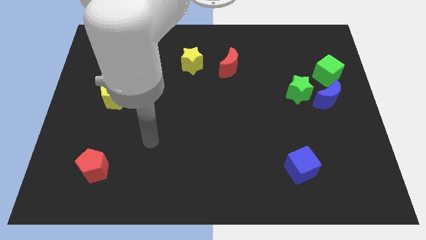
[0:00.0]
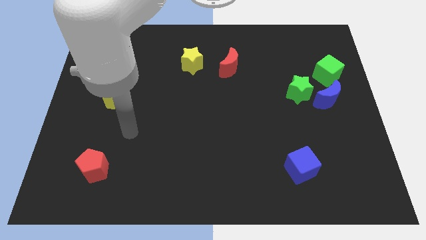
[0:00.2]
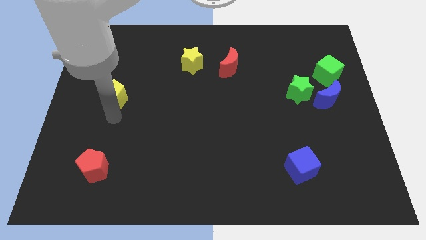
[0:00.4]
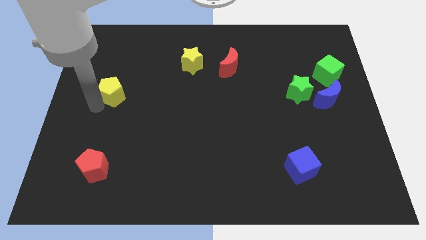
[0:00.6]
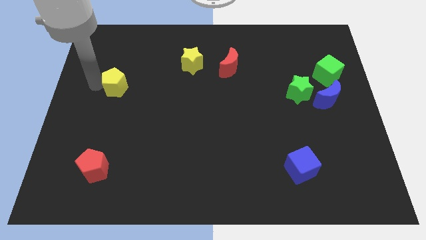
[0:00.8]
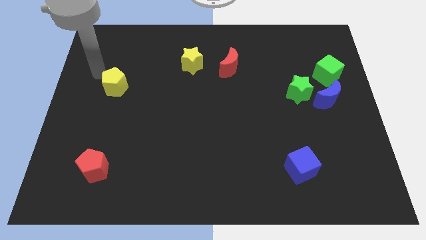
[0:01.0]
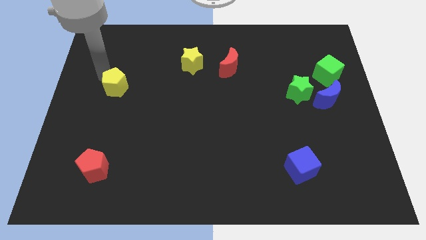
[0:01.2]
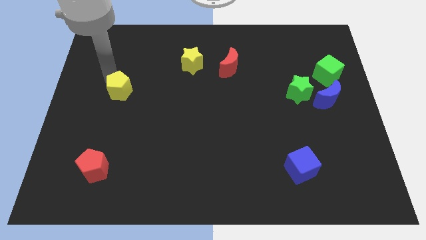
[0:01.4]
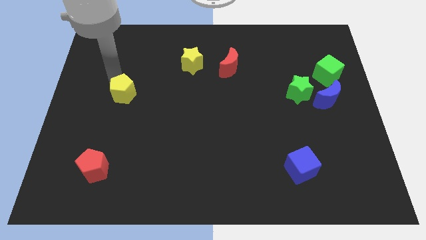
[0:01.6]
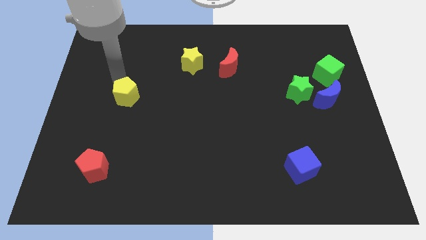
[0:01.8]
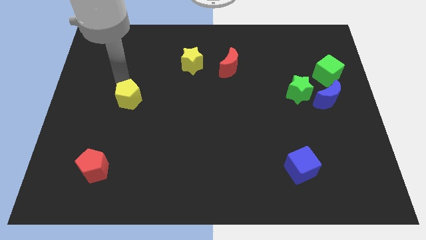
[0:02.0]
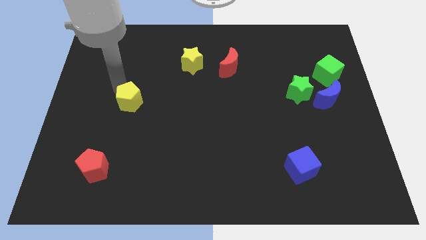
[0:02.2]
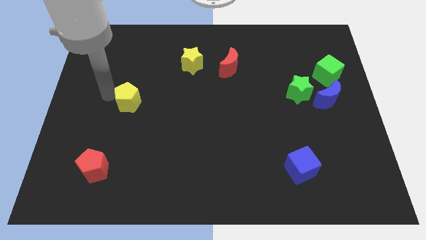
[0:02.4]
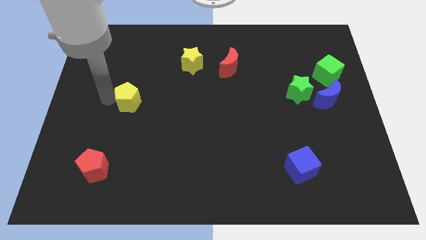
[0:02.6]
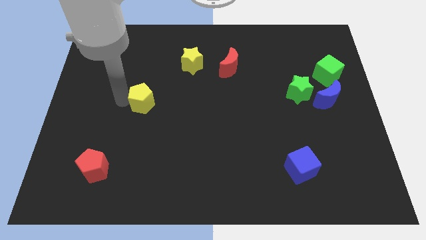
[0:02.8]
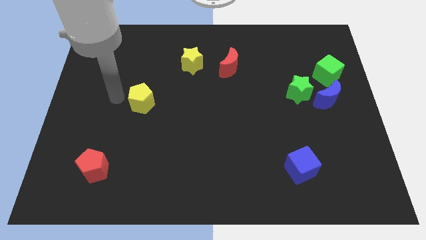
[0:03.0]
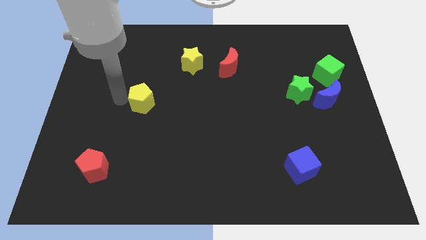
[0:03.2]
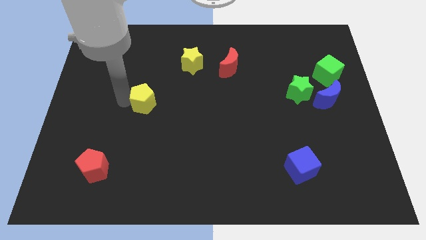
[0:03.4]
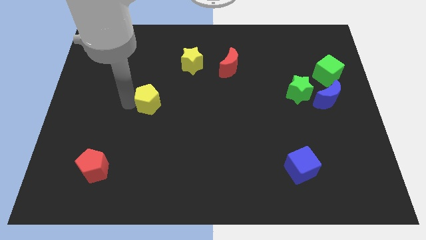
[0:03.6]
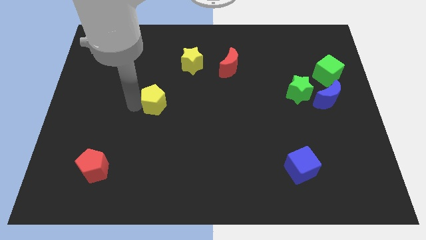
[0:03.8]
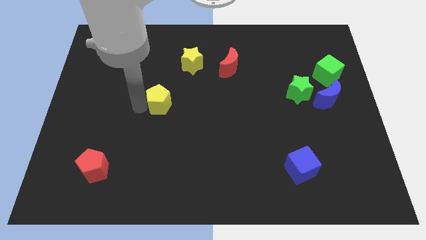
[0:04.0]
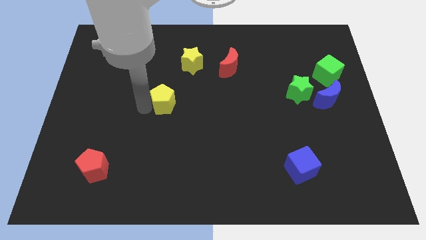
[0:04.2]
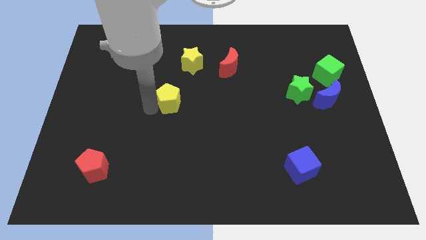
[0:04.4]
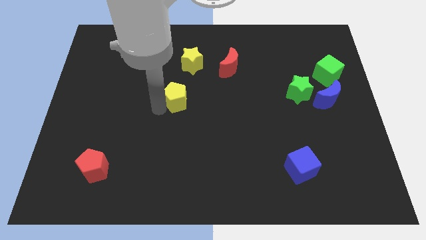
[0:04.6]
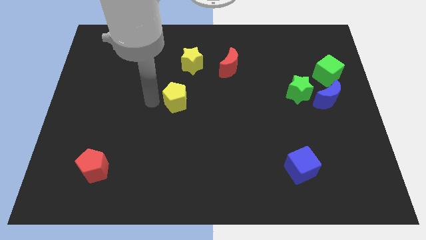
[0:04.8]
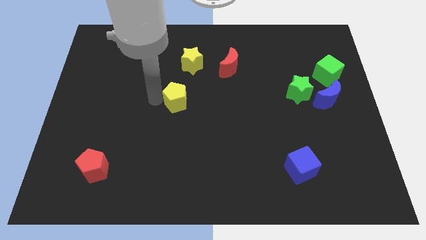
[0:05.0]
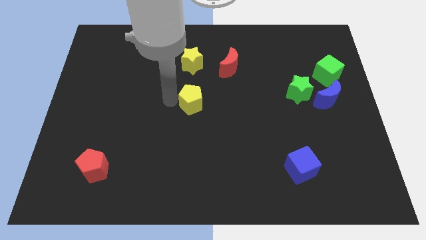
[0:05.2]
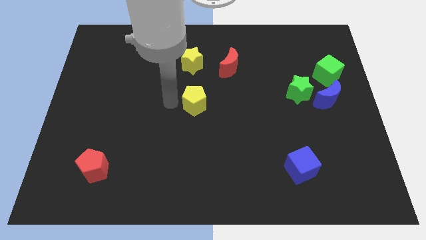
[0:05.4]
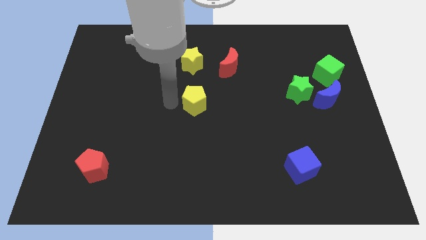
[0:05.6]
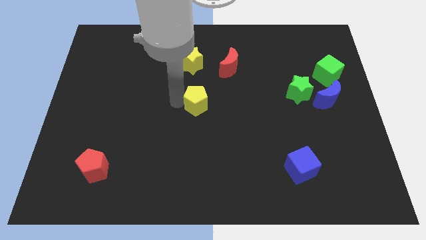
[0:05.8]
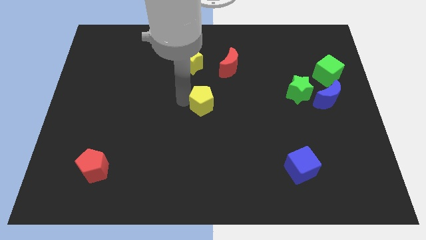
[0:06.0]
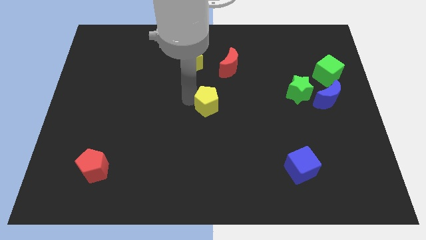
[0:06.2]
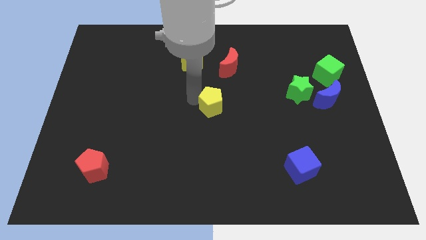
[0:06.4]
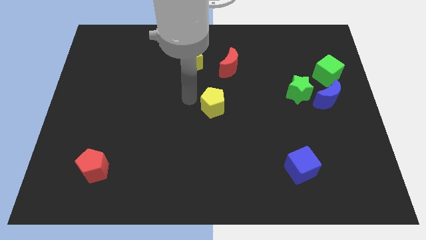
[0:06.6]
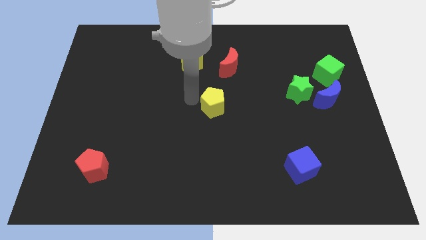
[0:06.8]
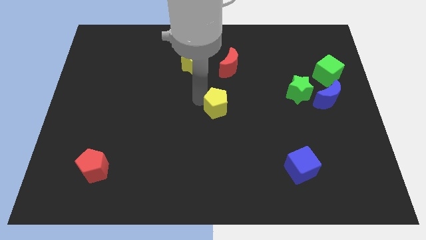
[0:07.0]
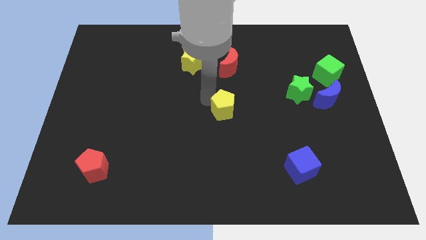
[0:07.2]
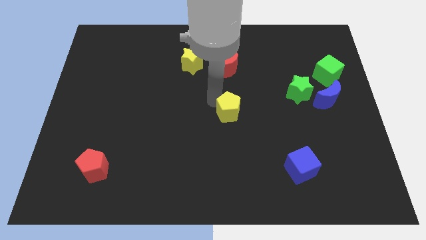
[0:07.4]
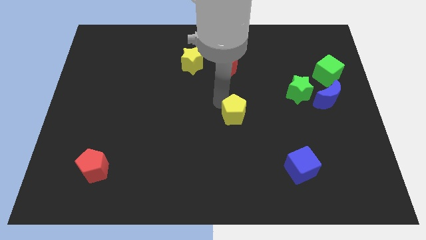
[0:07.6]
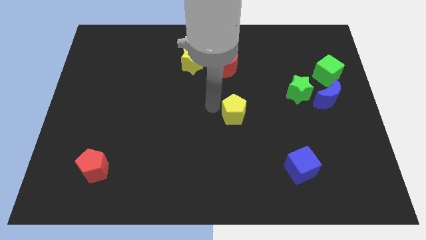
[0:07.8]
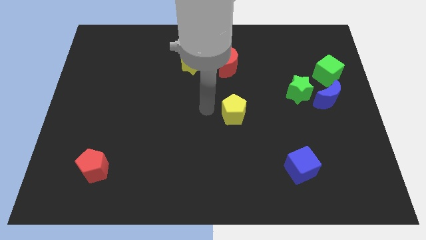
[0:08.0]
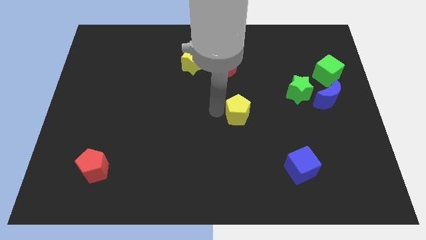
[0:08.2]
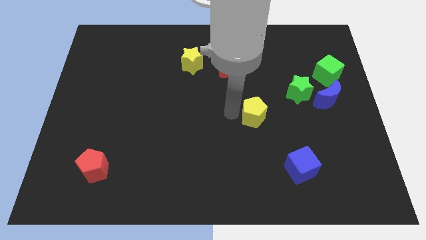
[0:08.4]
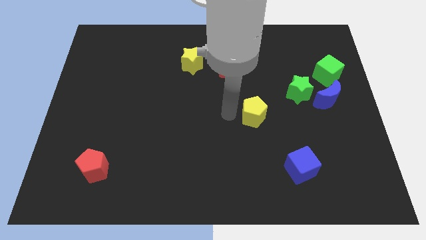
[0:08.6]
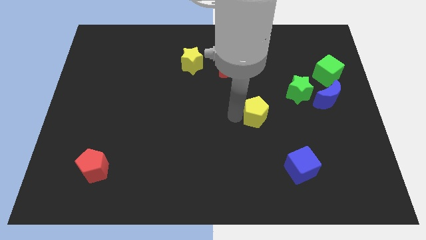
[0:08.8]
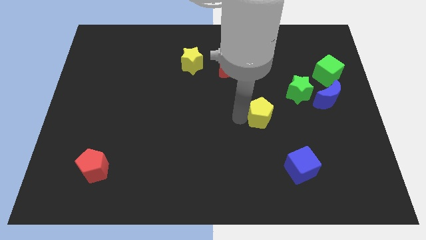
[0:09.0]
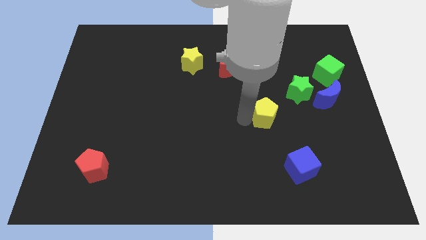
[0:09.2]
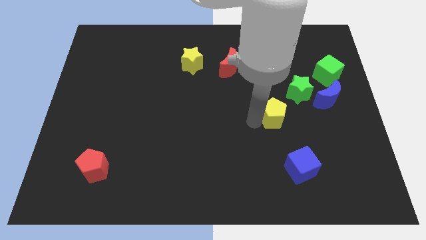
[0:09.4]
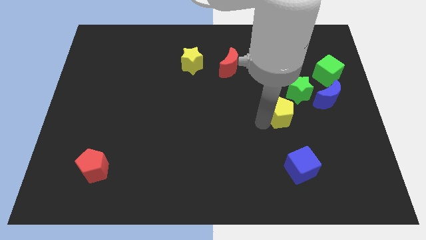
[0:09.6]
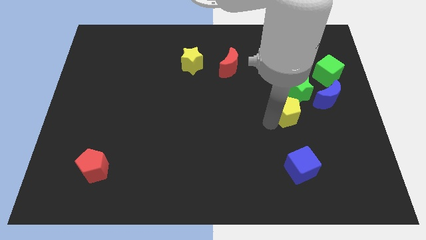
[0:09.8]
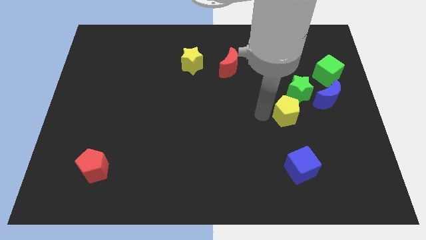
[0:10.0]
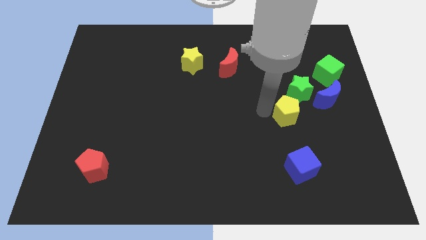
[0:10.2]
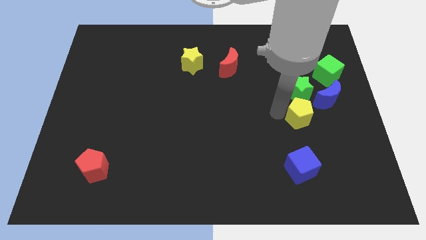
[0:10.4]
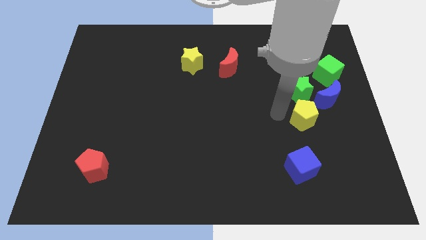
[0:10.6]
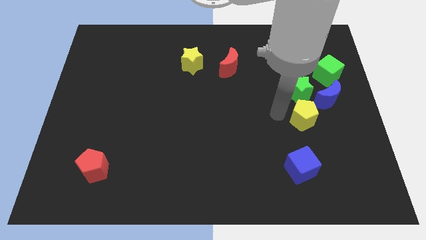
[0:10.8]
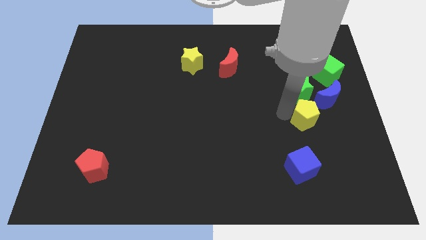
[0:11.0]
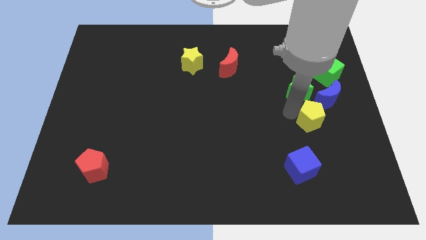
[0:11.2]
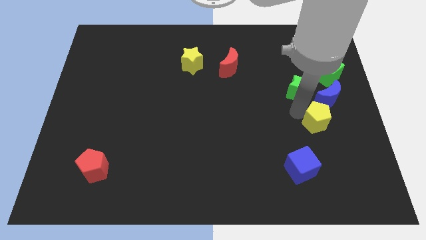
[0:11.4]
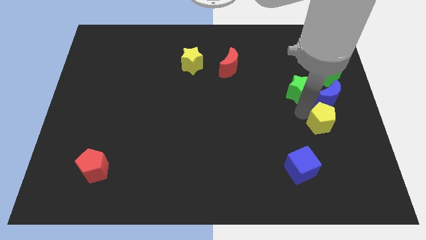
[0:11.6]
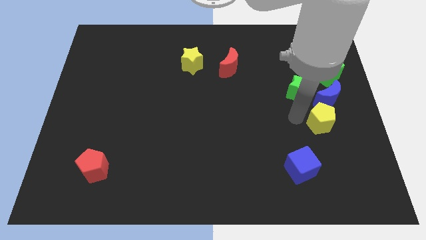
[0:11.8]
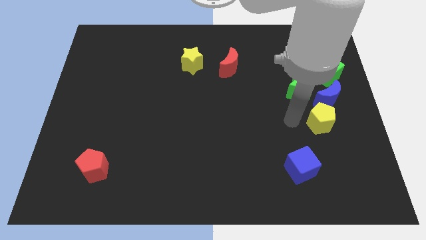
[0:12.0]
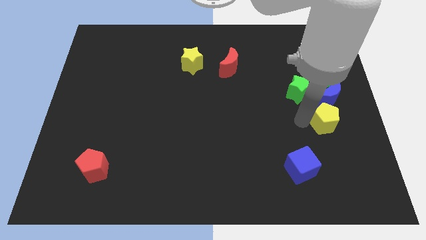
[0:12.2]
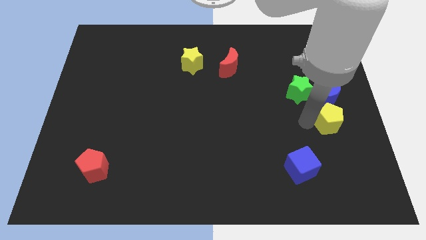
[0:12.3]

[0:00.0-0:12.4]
push the yellow pentagon to the center right
